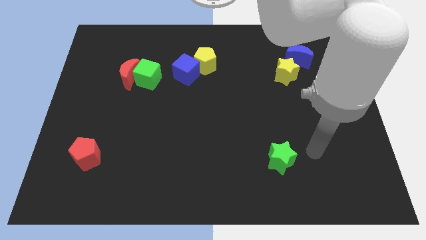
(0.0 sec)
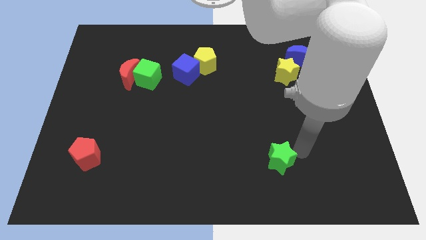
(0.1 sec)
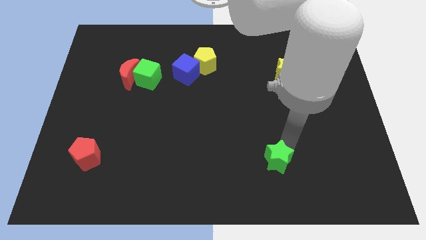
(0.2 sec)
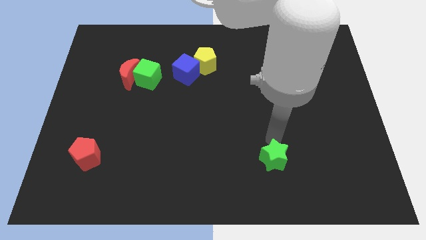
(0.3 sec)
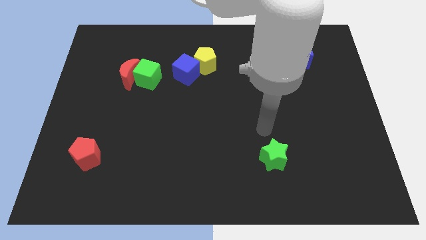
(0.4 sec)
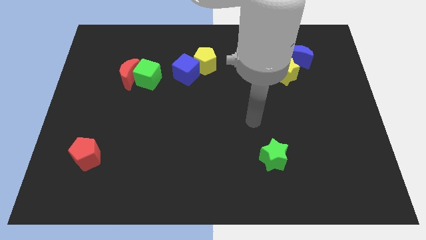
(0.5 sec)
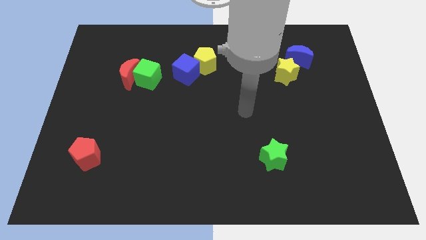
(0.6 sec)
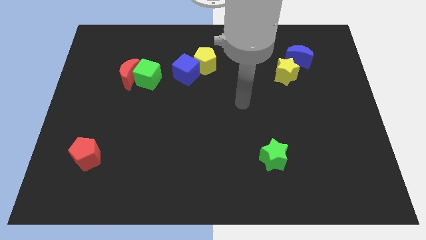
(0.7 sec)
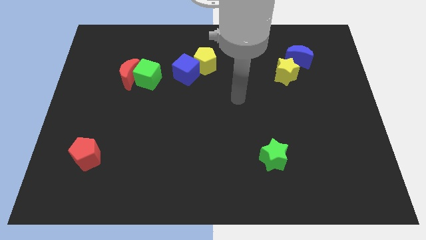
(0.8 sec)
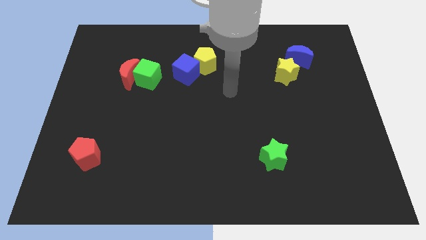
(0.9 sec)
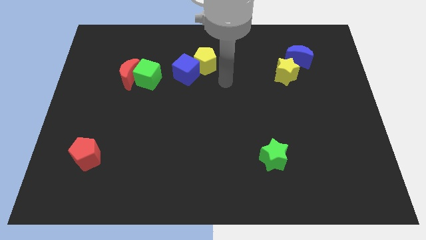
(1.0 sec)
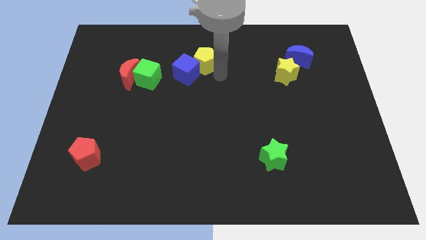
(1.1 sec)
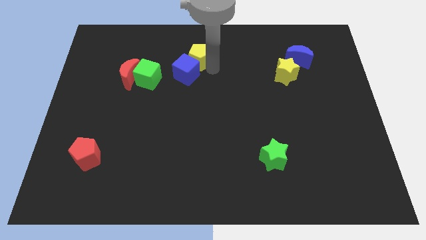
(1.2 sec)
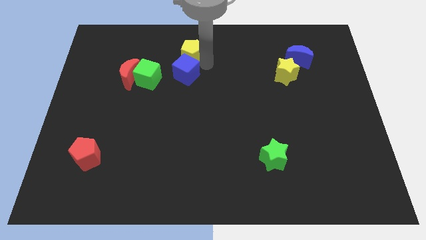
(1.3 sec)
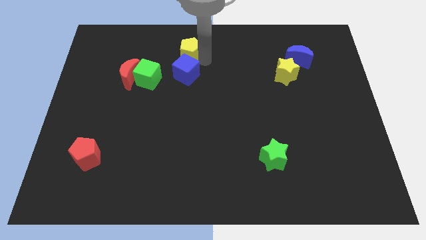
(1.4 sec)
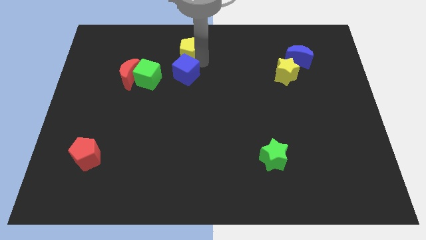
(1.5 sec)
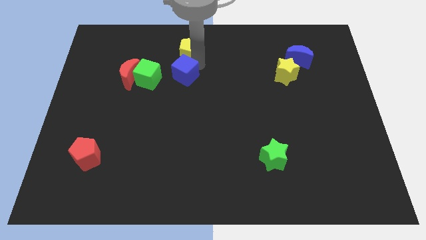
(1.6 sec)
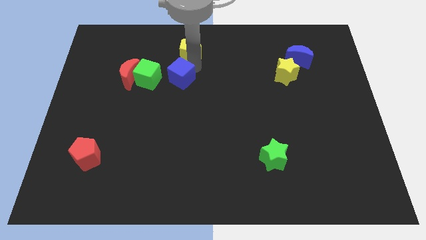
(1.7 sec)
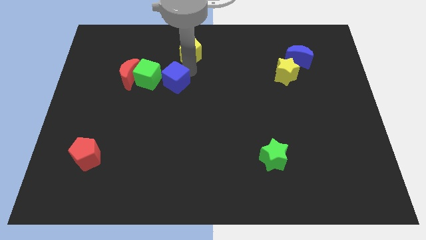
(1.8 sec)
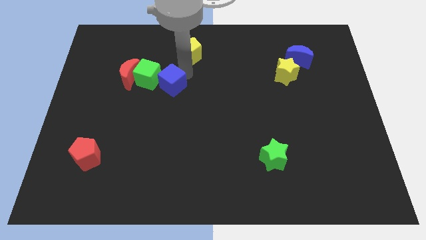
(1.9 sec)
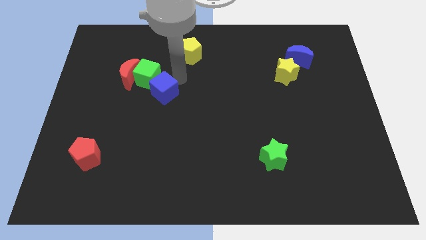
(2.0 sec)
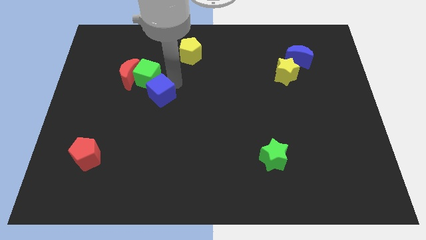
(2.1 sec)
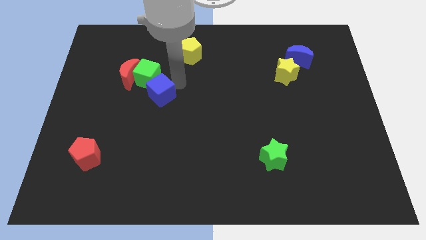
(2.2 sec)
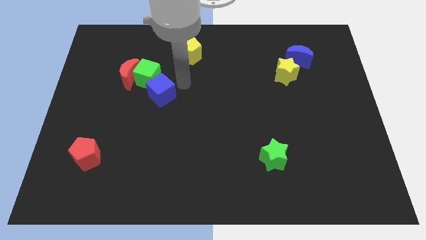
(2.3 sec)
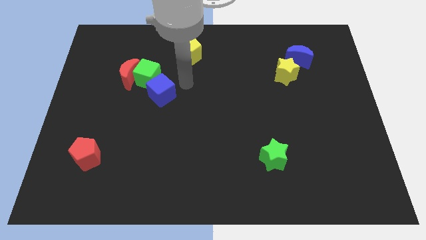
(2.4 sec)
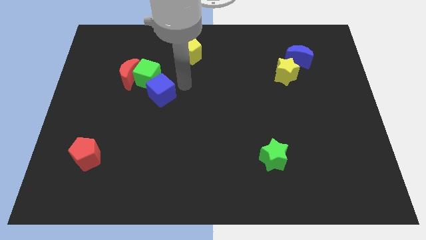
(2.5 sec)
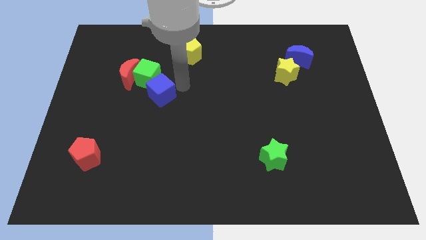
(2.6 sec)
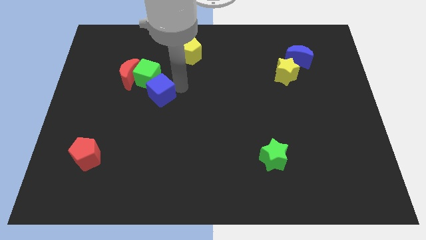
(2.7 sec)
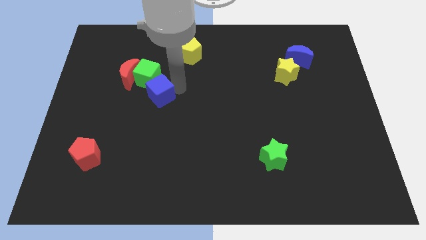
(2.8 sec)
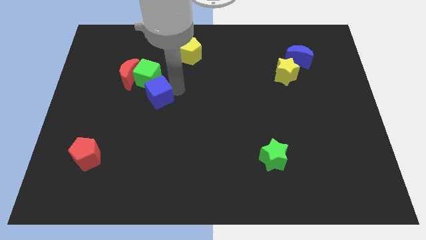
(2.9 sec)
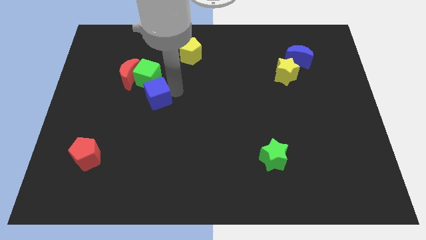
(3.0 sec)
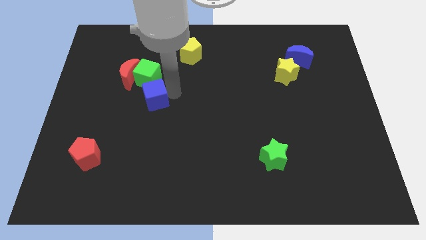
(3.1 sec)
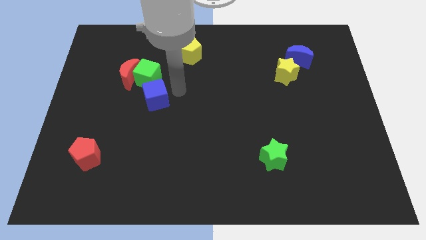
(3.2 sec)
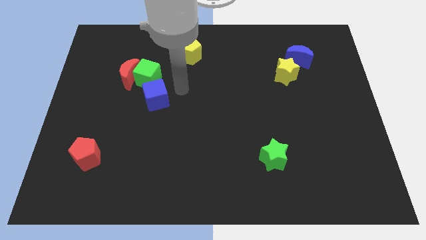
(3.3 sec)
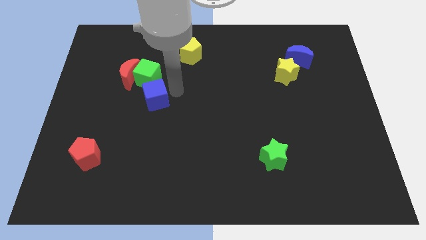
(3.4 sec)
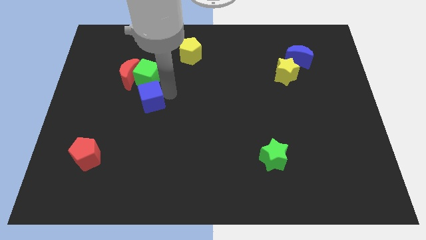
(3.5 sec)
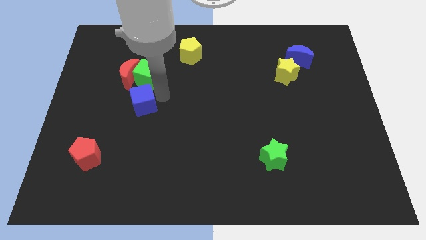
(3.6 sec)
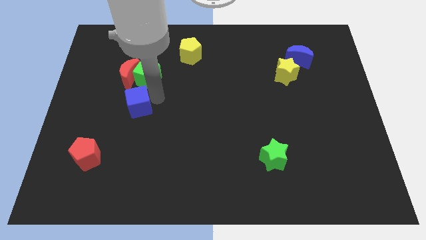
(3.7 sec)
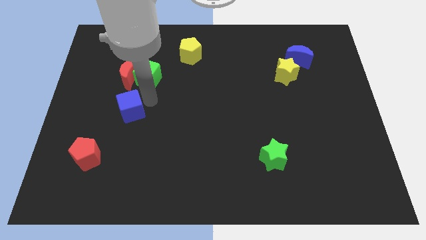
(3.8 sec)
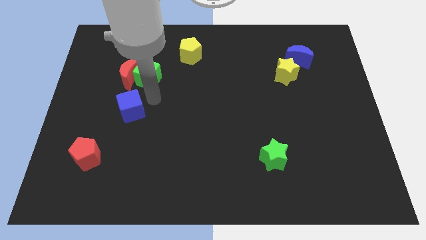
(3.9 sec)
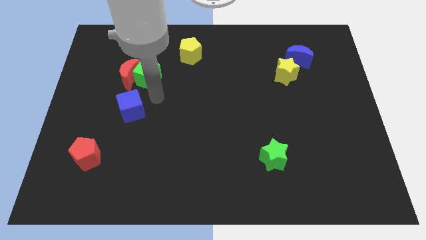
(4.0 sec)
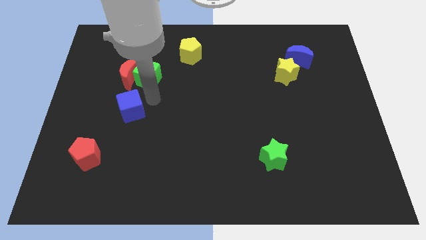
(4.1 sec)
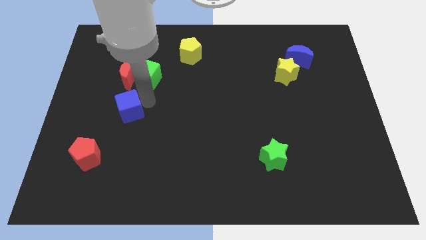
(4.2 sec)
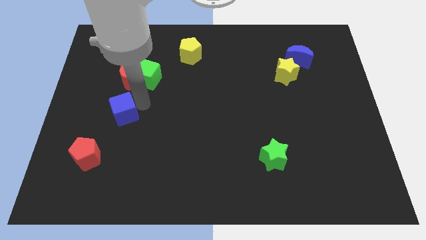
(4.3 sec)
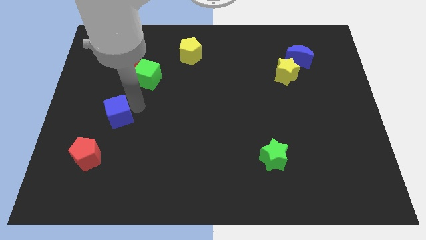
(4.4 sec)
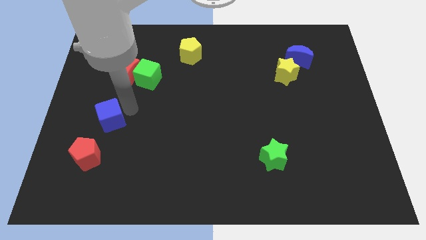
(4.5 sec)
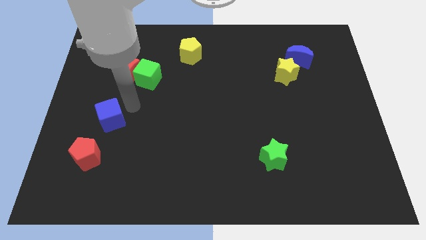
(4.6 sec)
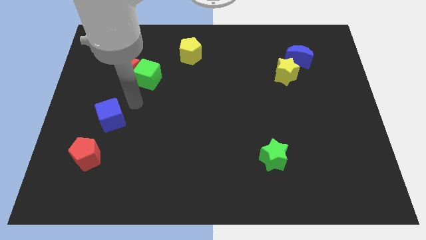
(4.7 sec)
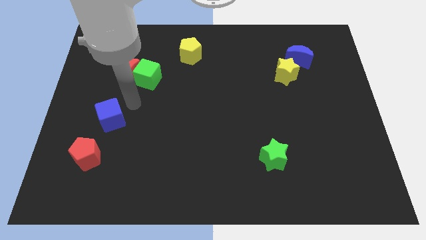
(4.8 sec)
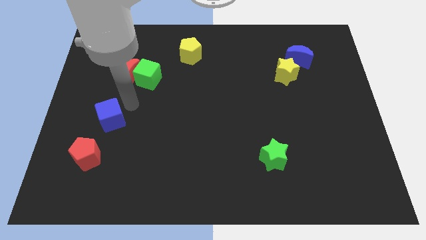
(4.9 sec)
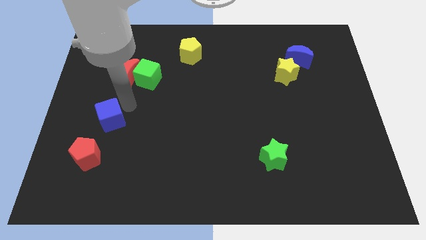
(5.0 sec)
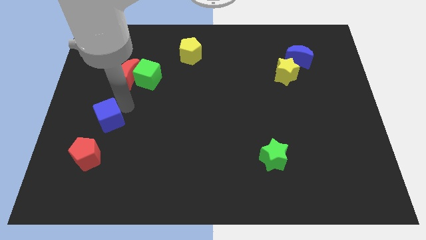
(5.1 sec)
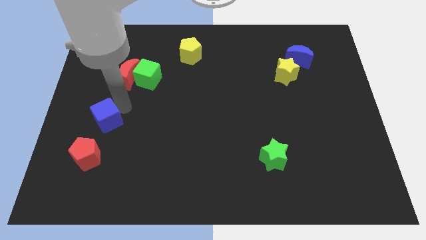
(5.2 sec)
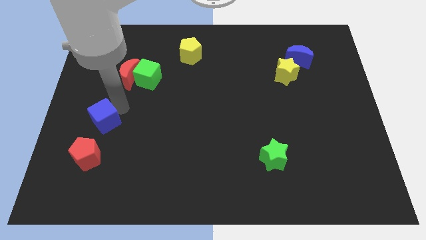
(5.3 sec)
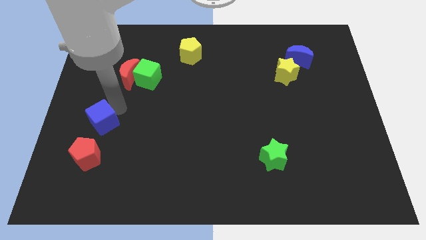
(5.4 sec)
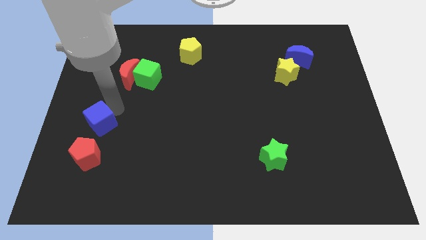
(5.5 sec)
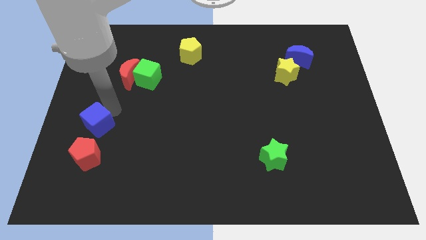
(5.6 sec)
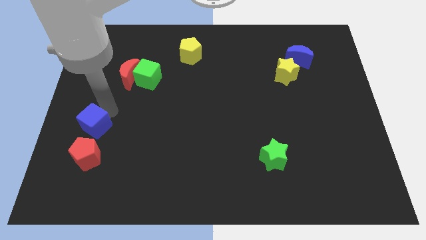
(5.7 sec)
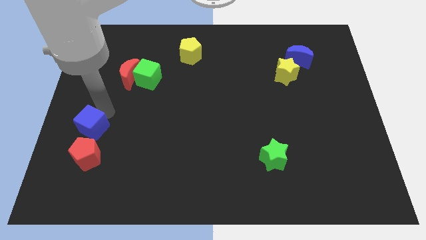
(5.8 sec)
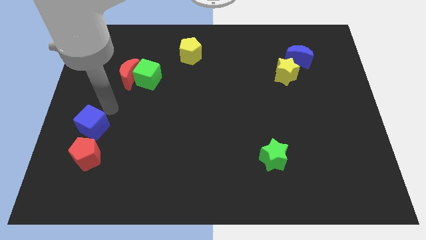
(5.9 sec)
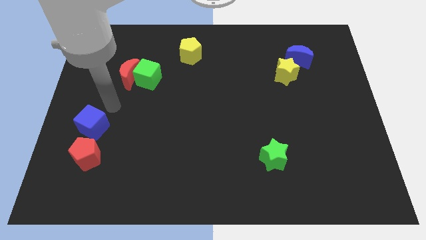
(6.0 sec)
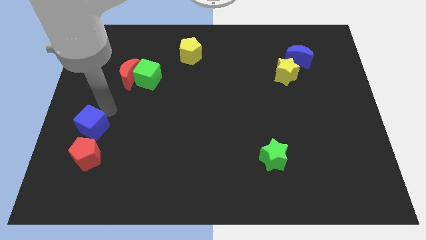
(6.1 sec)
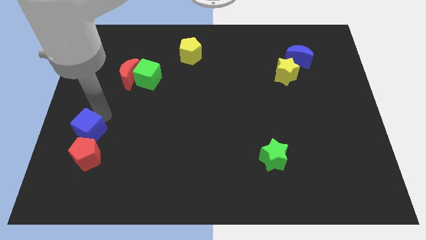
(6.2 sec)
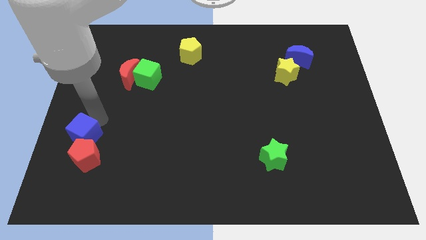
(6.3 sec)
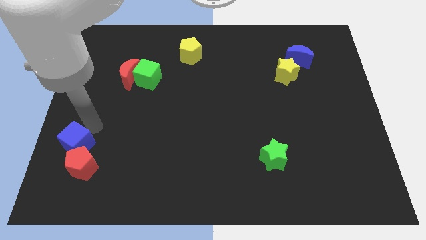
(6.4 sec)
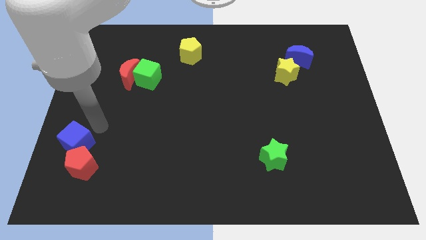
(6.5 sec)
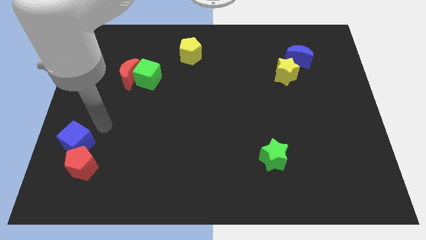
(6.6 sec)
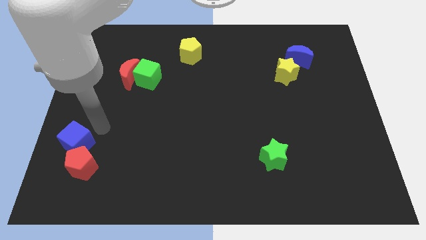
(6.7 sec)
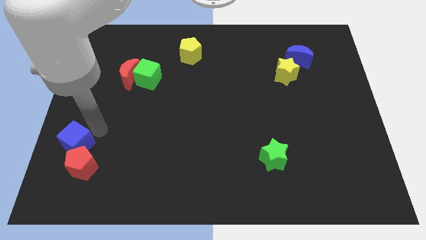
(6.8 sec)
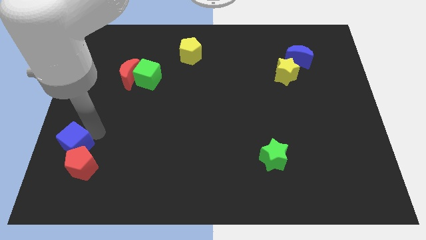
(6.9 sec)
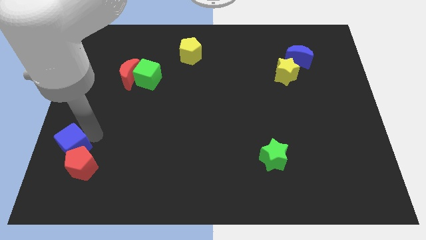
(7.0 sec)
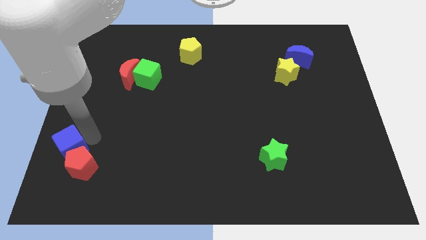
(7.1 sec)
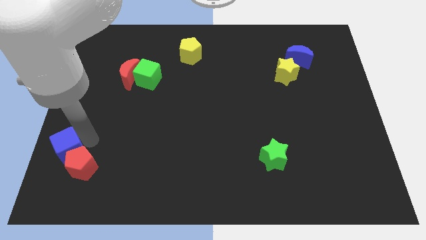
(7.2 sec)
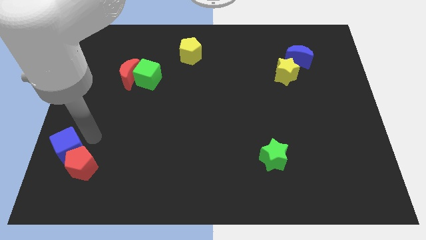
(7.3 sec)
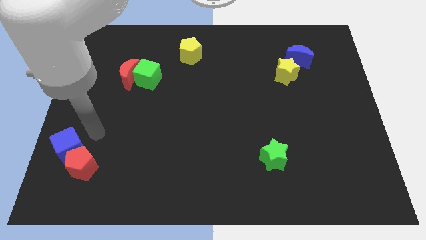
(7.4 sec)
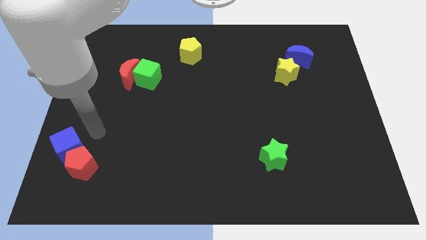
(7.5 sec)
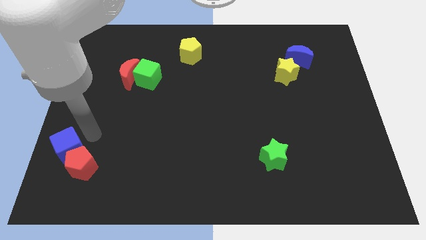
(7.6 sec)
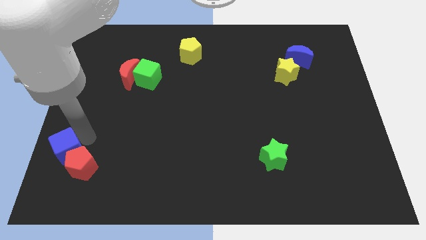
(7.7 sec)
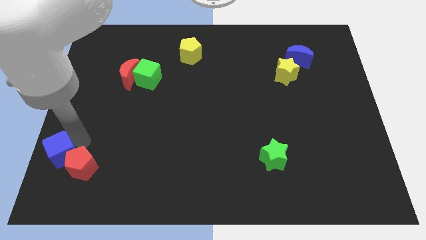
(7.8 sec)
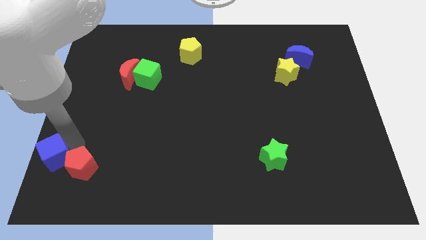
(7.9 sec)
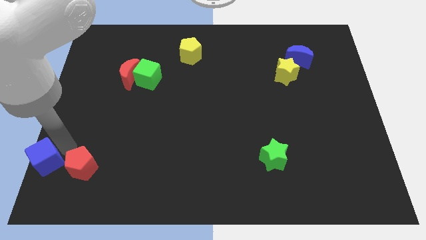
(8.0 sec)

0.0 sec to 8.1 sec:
put the blue cube to the lower left corner
